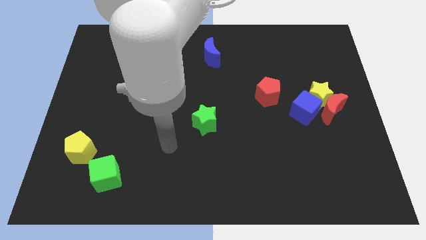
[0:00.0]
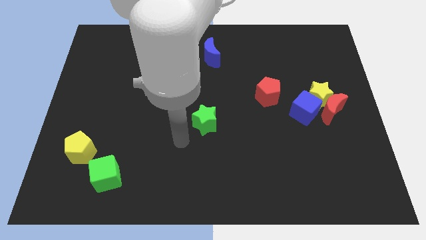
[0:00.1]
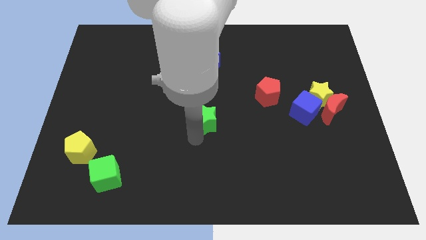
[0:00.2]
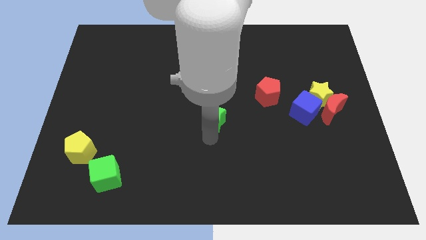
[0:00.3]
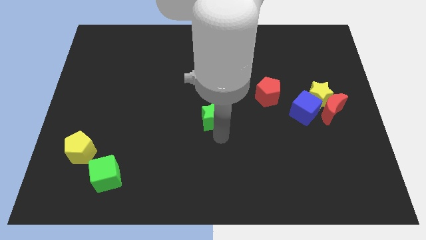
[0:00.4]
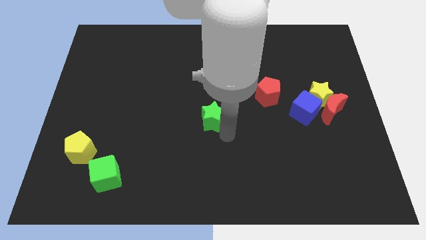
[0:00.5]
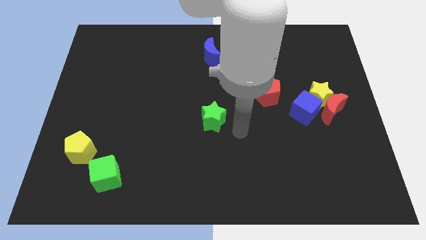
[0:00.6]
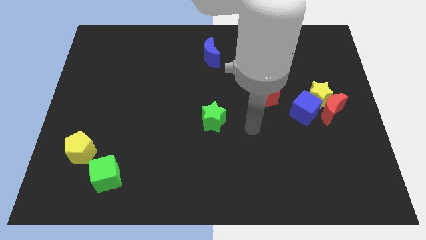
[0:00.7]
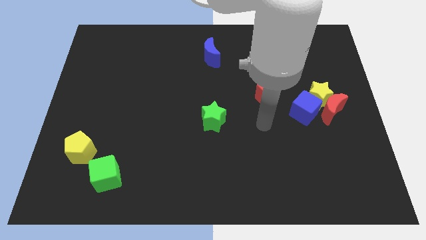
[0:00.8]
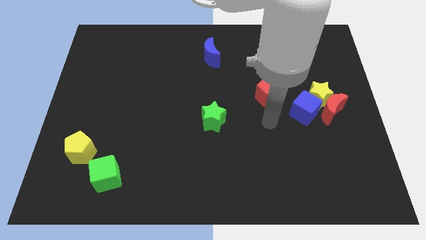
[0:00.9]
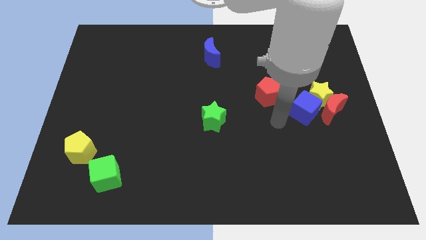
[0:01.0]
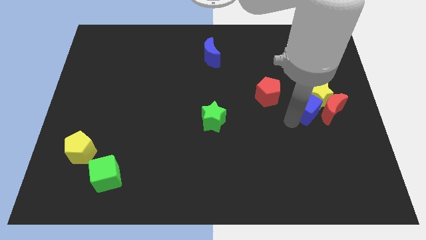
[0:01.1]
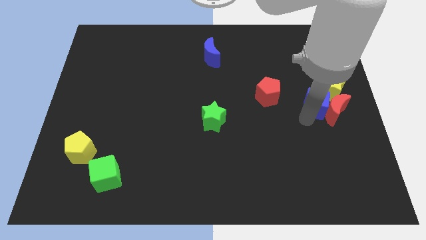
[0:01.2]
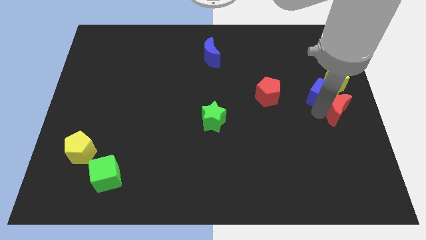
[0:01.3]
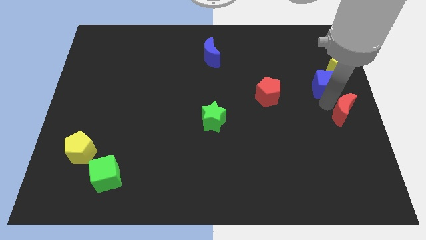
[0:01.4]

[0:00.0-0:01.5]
separate the yellow star from the red moon and blue cube

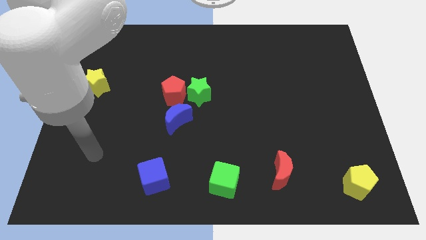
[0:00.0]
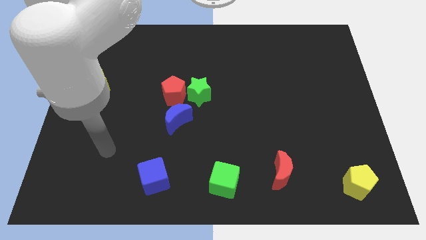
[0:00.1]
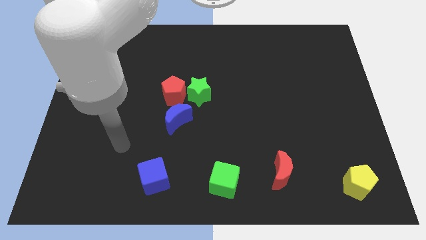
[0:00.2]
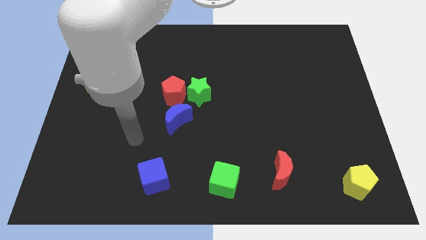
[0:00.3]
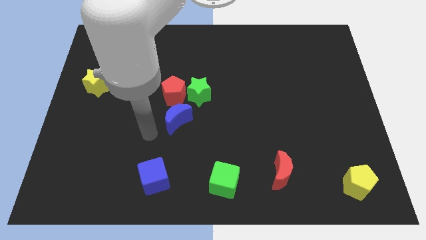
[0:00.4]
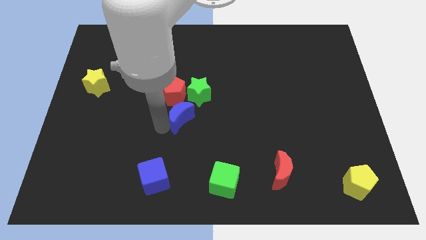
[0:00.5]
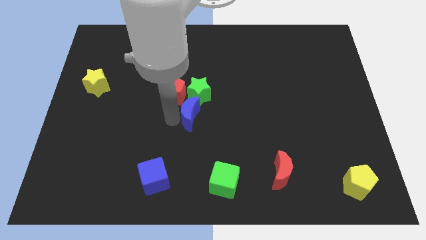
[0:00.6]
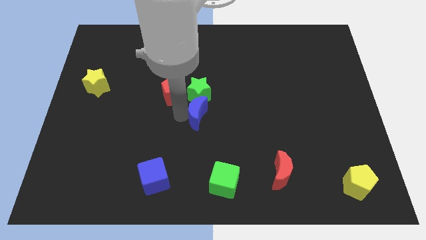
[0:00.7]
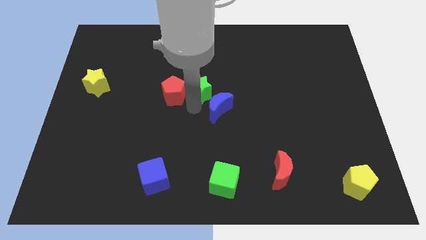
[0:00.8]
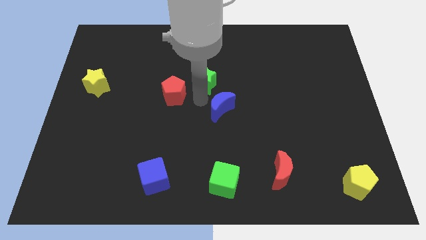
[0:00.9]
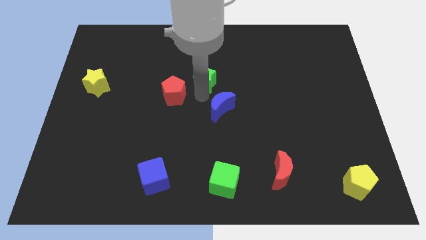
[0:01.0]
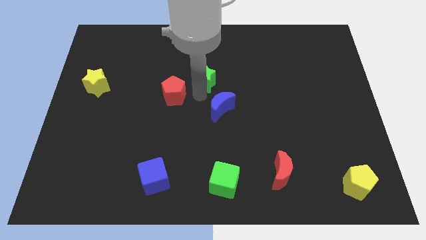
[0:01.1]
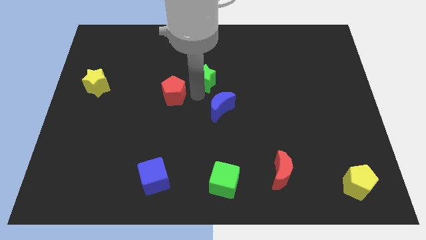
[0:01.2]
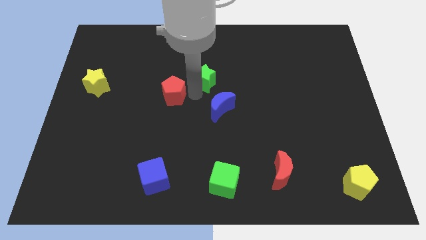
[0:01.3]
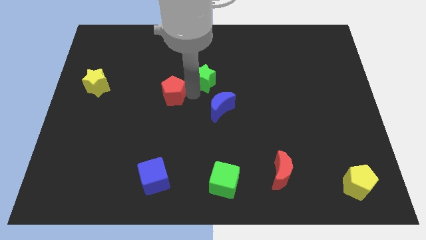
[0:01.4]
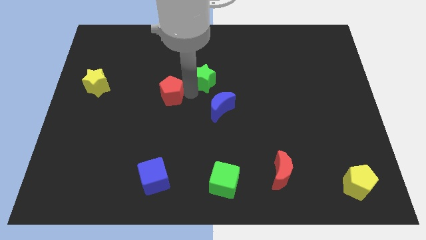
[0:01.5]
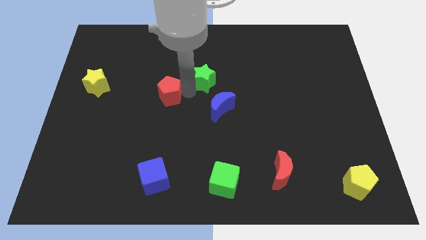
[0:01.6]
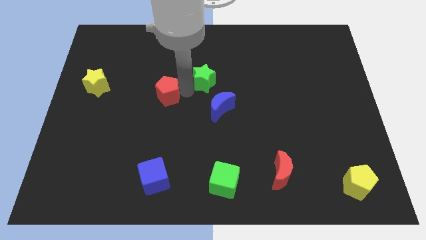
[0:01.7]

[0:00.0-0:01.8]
pull the red pentagon apart from the green star and blue moon

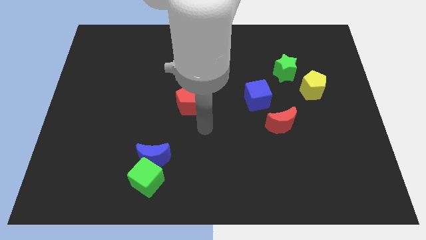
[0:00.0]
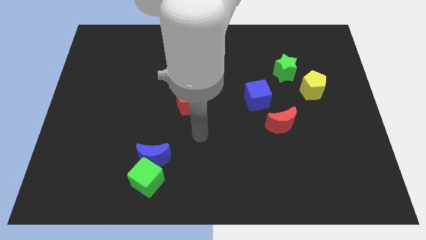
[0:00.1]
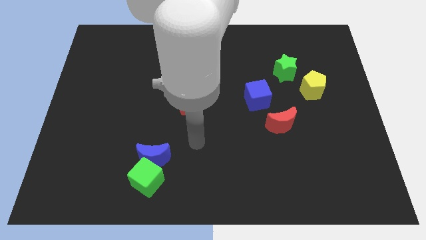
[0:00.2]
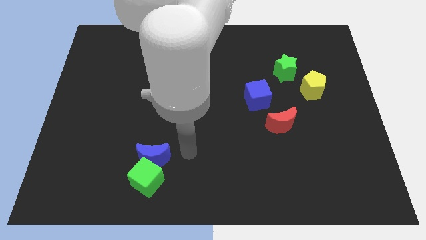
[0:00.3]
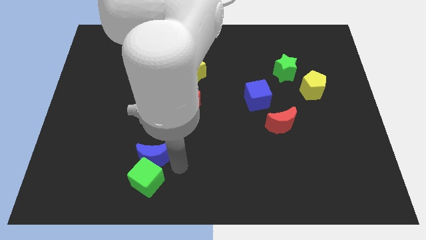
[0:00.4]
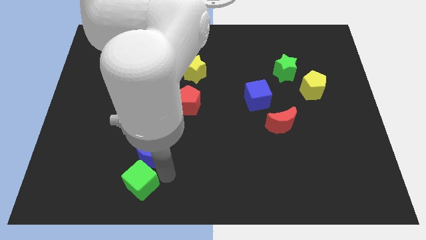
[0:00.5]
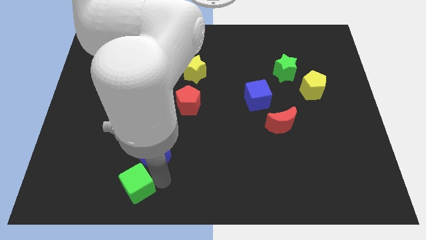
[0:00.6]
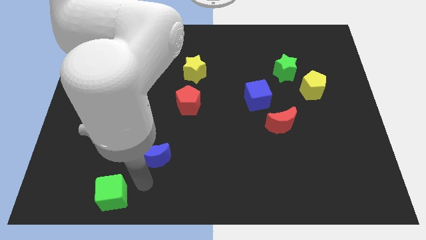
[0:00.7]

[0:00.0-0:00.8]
separate the blue moon from the green cube

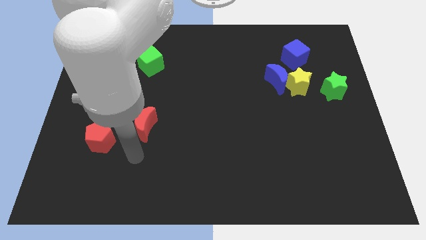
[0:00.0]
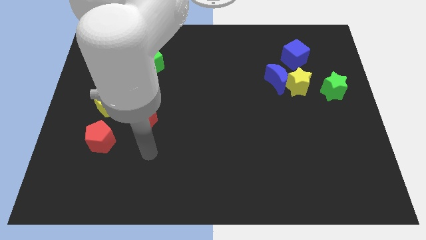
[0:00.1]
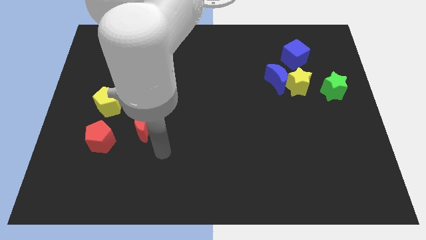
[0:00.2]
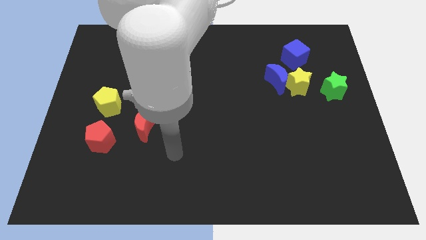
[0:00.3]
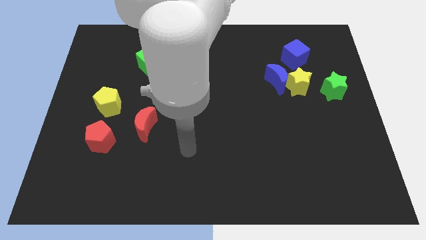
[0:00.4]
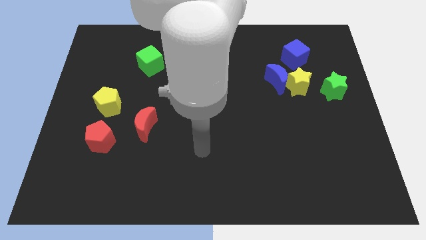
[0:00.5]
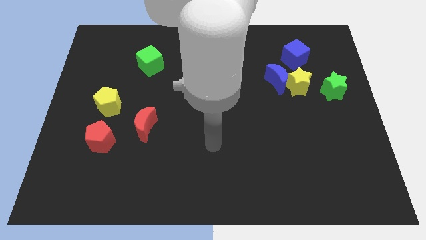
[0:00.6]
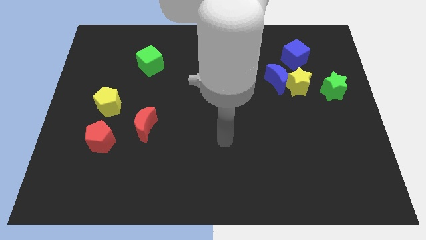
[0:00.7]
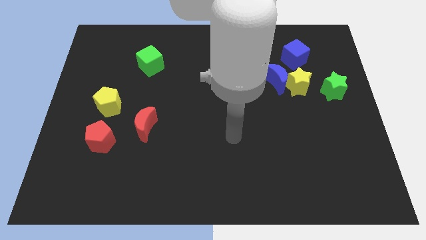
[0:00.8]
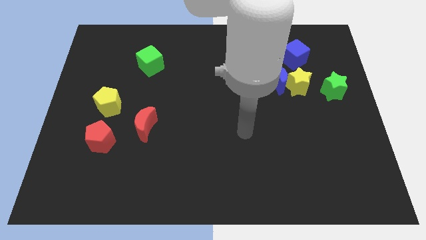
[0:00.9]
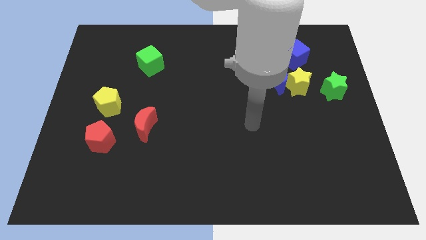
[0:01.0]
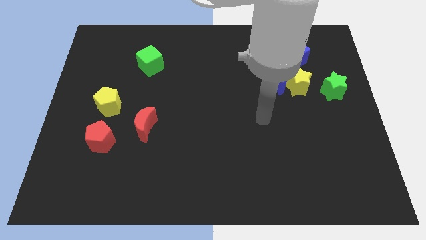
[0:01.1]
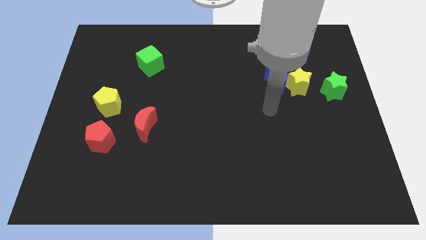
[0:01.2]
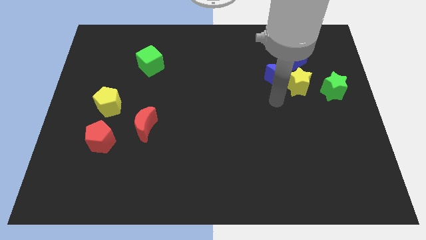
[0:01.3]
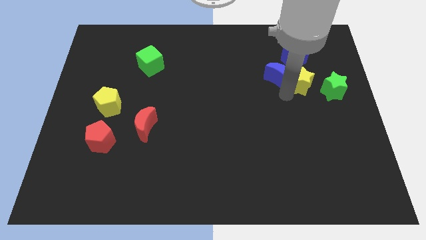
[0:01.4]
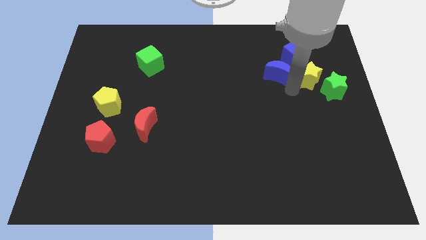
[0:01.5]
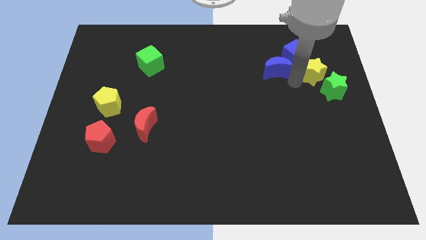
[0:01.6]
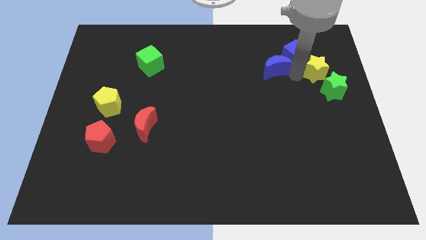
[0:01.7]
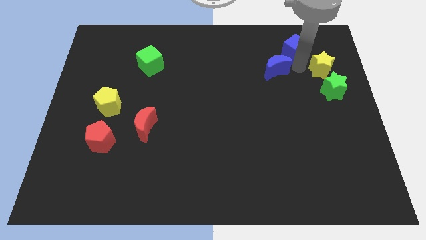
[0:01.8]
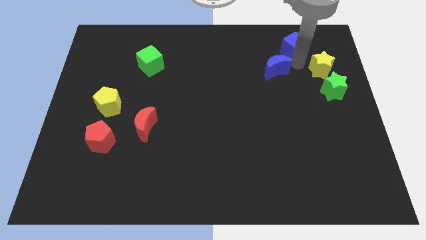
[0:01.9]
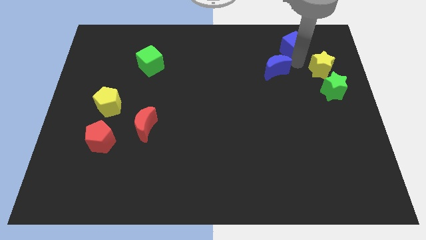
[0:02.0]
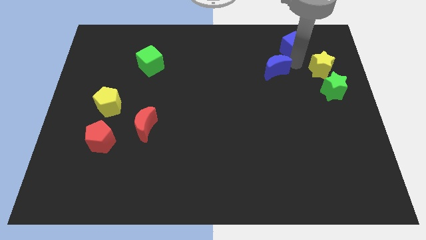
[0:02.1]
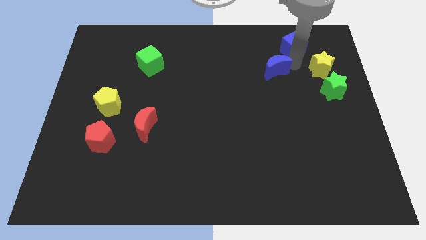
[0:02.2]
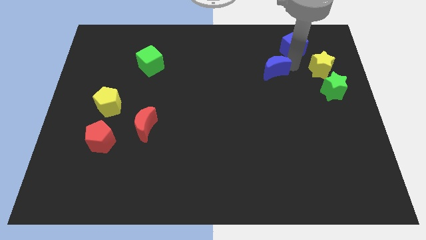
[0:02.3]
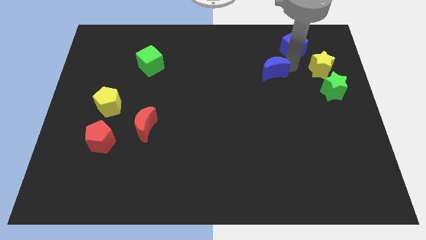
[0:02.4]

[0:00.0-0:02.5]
separate the blue moon from the yellow star and blue cube

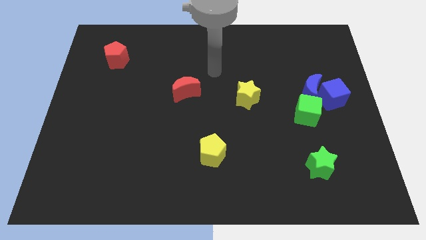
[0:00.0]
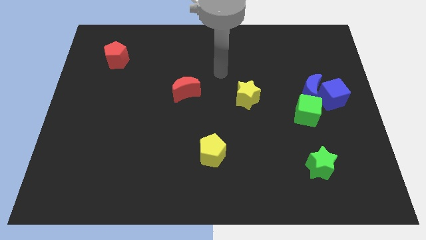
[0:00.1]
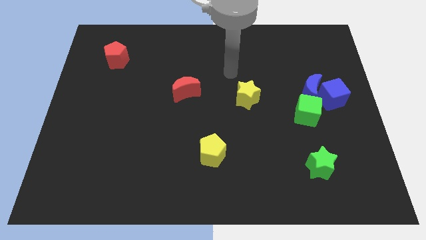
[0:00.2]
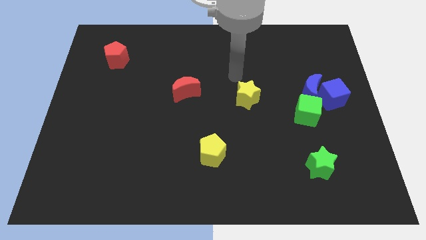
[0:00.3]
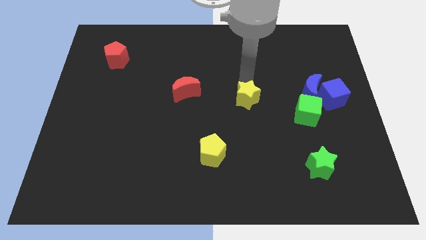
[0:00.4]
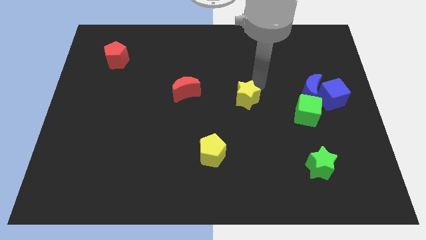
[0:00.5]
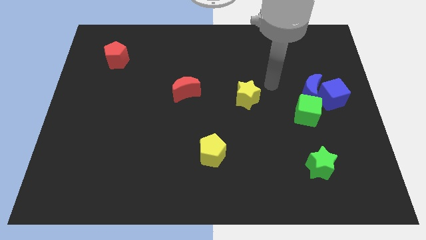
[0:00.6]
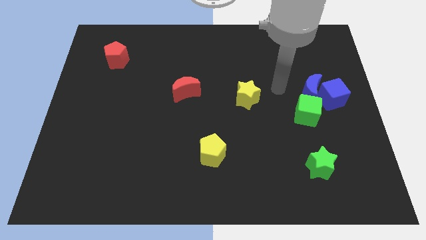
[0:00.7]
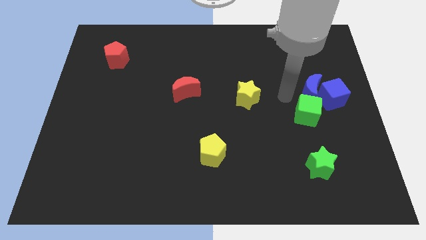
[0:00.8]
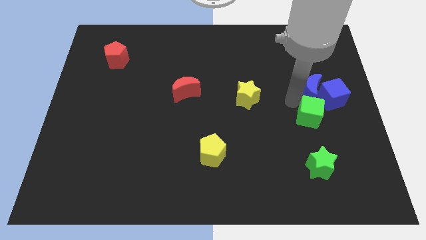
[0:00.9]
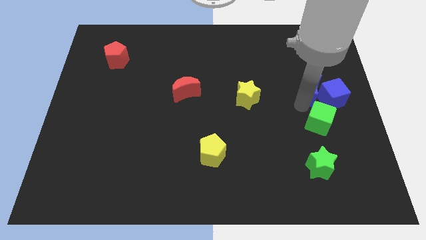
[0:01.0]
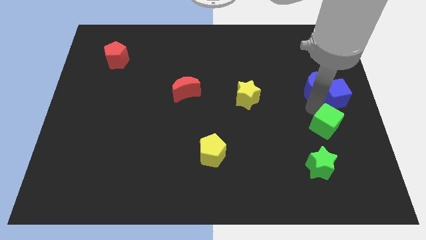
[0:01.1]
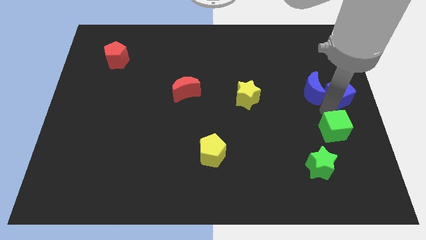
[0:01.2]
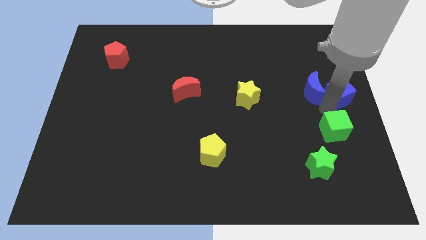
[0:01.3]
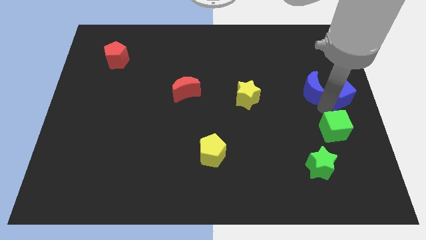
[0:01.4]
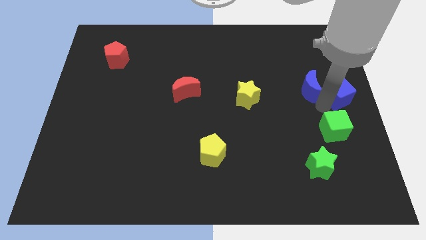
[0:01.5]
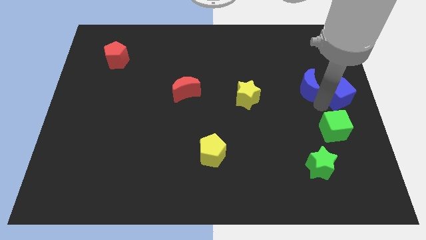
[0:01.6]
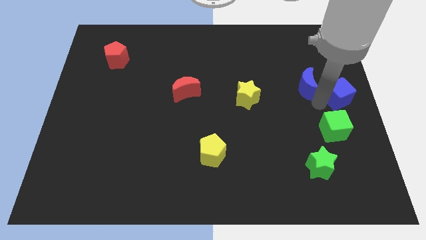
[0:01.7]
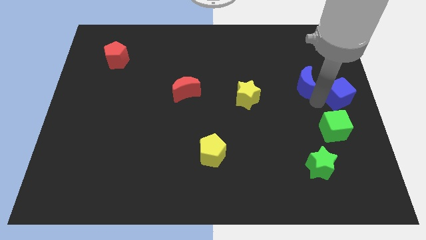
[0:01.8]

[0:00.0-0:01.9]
separate the blue moon from the blue cube and green cube

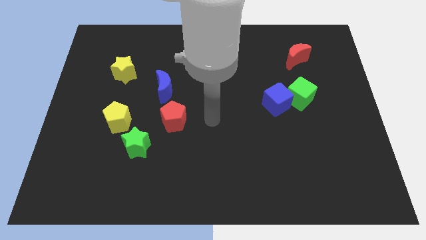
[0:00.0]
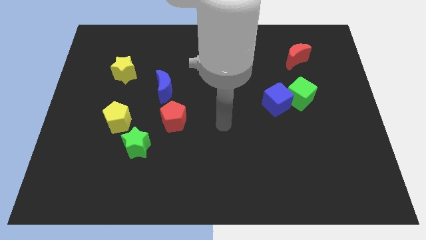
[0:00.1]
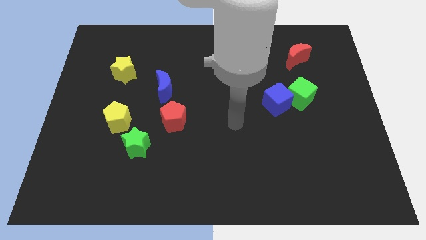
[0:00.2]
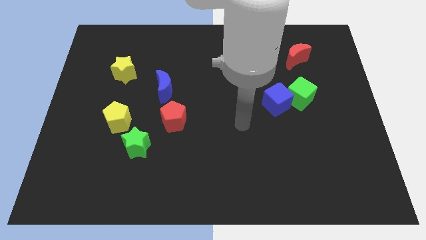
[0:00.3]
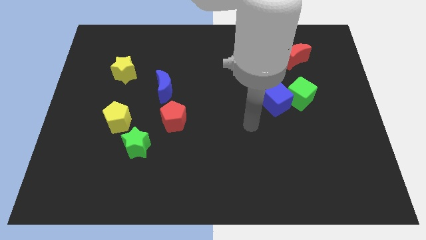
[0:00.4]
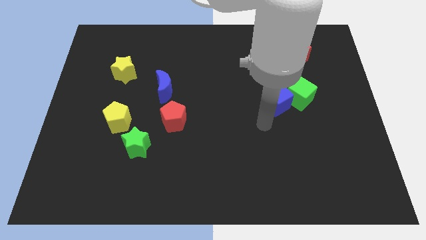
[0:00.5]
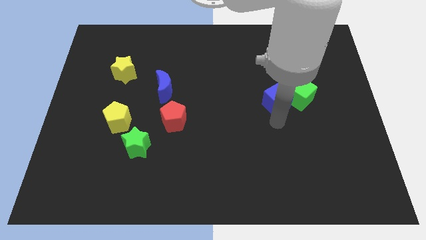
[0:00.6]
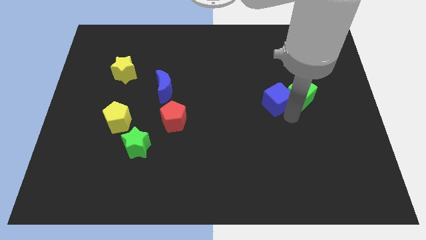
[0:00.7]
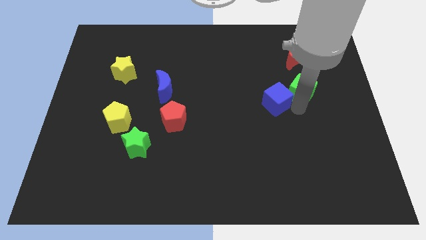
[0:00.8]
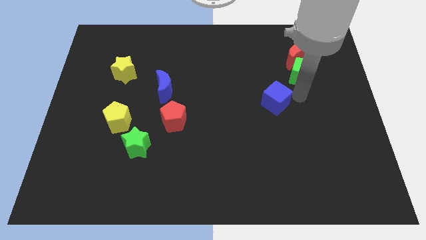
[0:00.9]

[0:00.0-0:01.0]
move the blue cube away from the green cube
